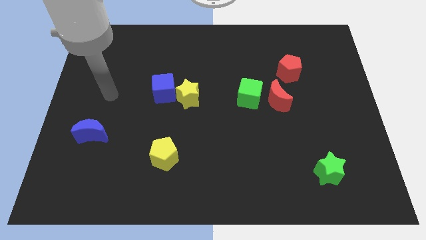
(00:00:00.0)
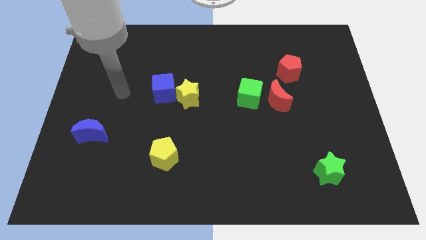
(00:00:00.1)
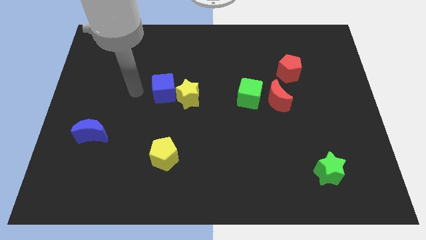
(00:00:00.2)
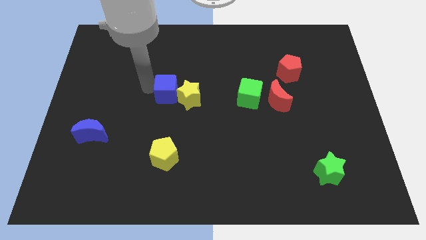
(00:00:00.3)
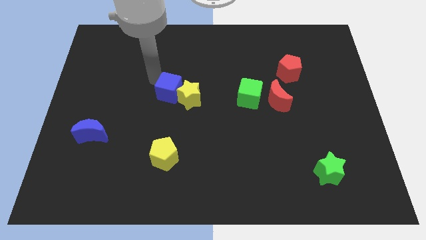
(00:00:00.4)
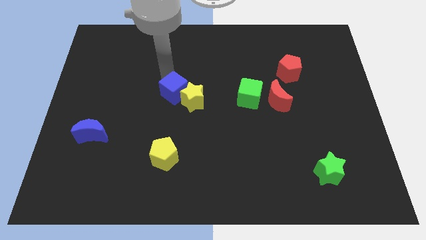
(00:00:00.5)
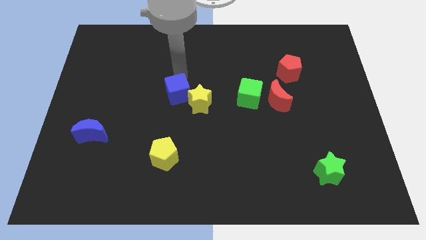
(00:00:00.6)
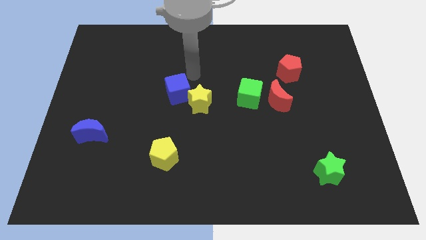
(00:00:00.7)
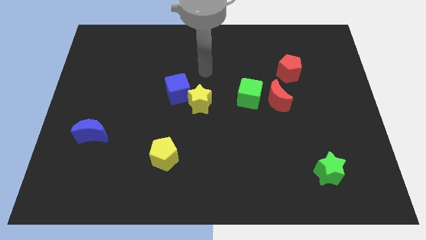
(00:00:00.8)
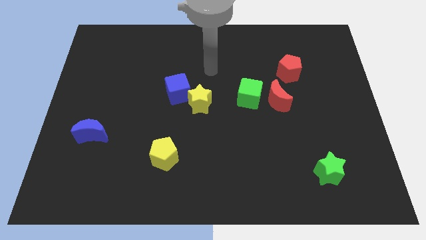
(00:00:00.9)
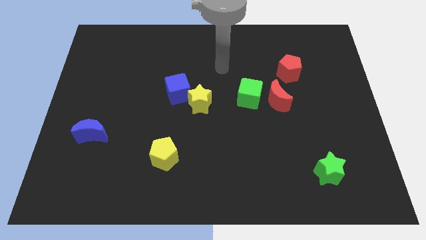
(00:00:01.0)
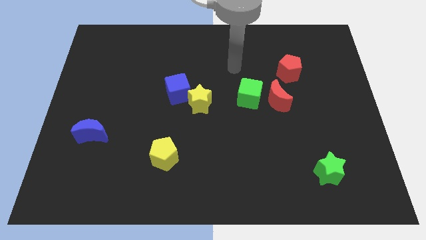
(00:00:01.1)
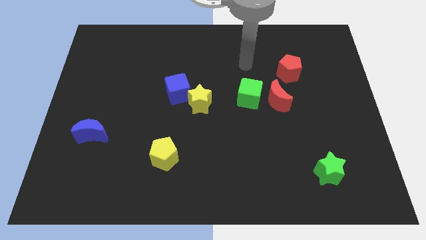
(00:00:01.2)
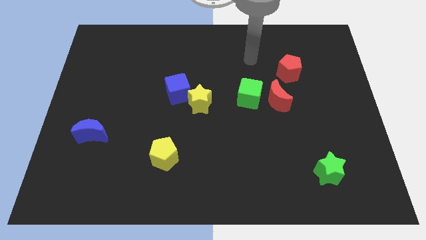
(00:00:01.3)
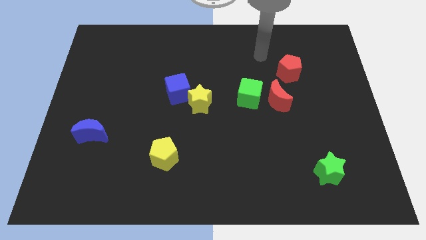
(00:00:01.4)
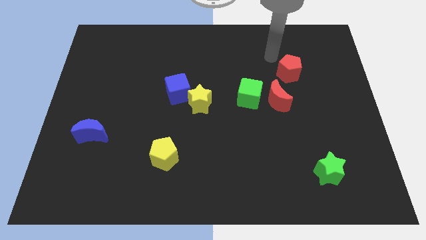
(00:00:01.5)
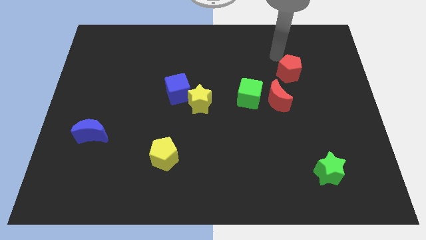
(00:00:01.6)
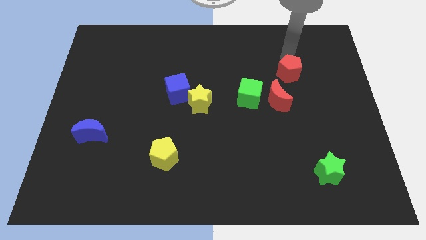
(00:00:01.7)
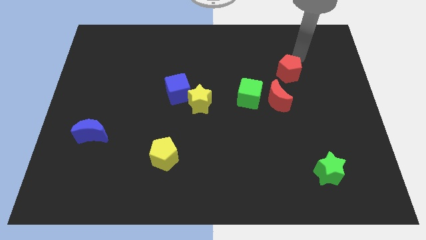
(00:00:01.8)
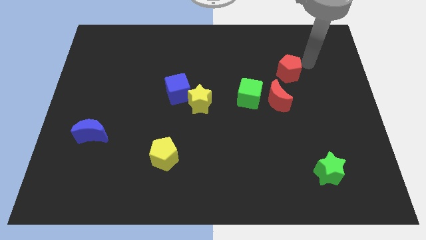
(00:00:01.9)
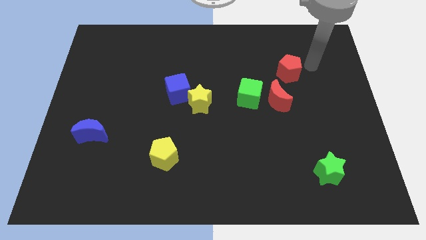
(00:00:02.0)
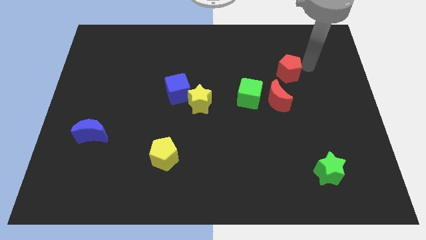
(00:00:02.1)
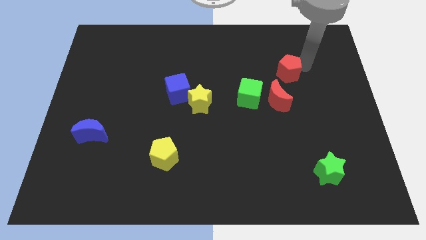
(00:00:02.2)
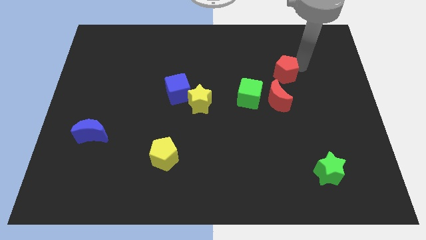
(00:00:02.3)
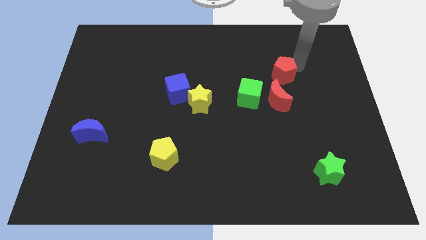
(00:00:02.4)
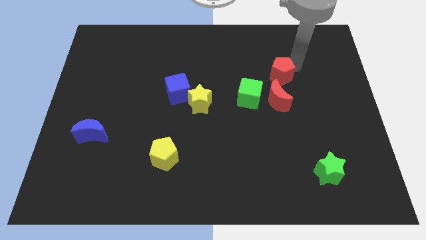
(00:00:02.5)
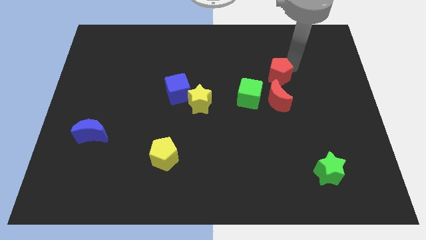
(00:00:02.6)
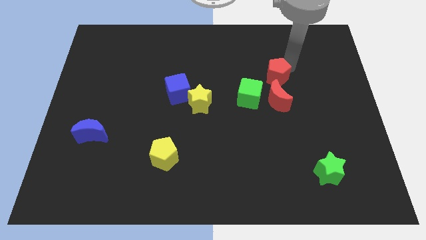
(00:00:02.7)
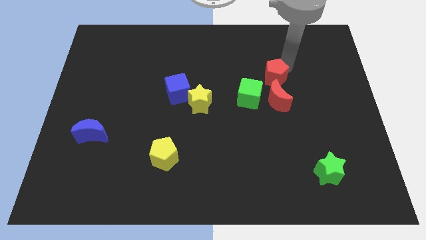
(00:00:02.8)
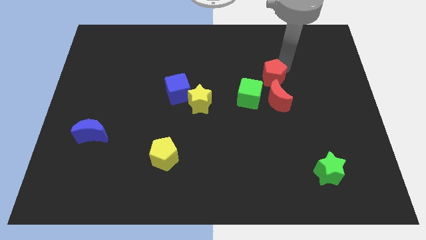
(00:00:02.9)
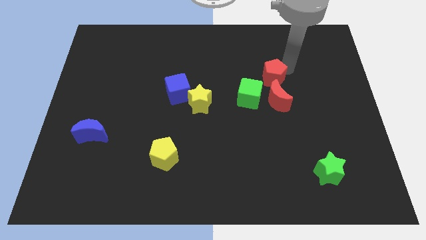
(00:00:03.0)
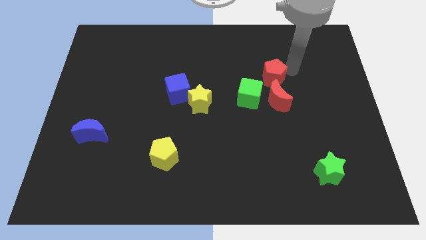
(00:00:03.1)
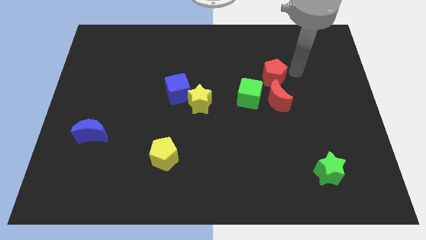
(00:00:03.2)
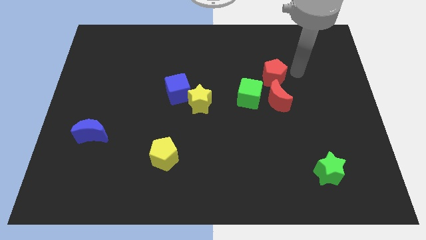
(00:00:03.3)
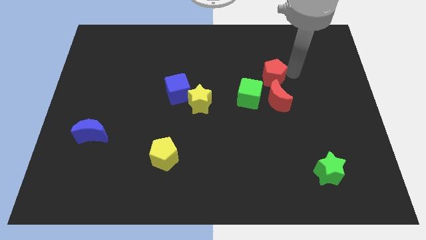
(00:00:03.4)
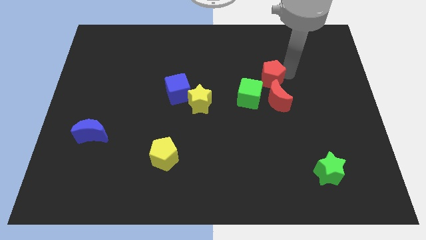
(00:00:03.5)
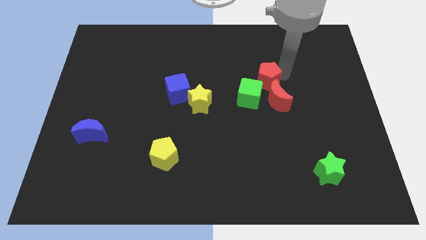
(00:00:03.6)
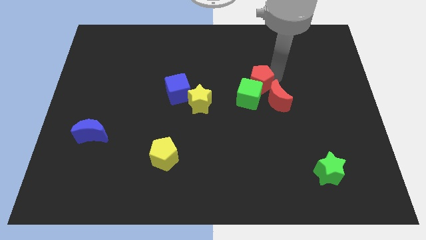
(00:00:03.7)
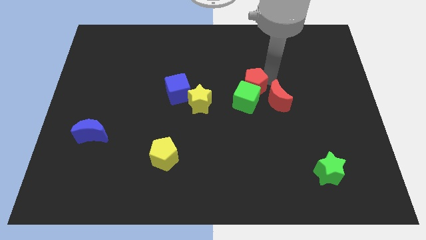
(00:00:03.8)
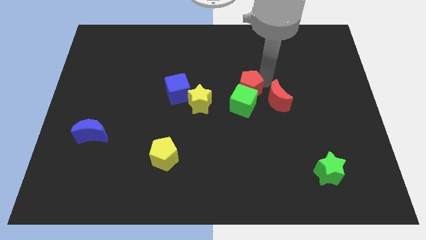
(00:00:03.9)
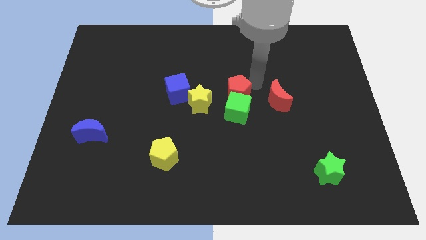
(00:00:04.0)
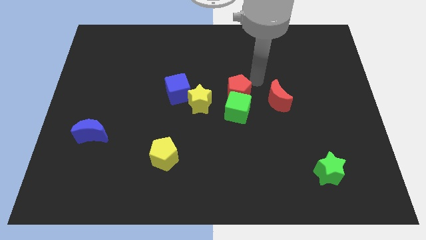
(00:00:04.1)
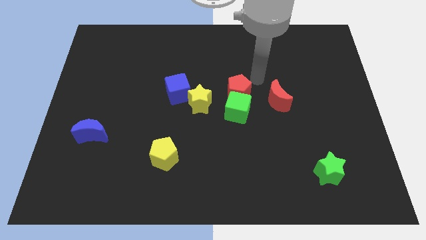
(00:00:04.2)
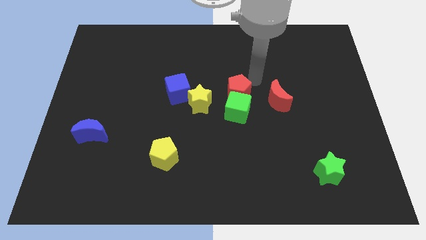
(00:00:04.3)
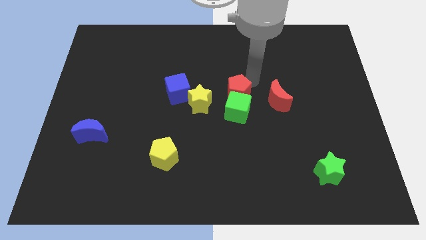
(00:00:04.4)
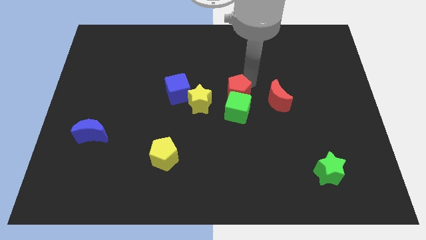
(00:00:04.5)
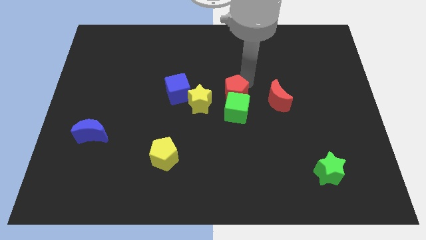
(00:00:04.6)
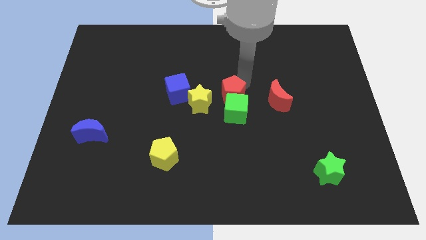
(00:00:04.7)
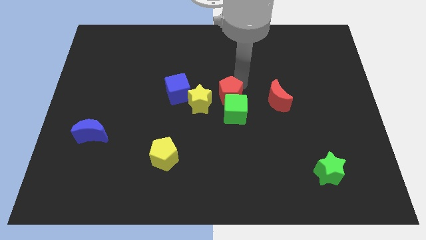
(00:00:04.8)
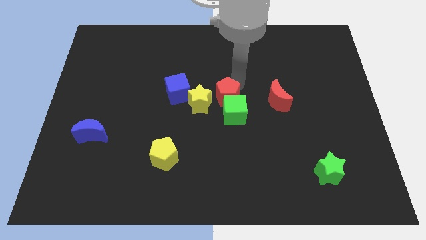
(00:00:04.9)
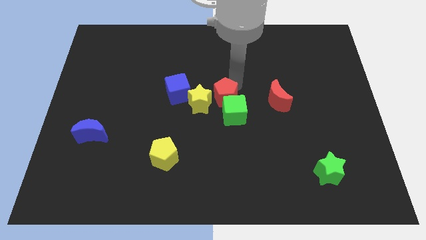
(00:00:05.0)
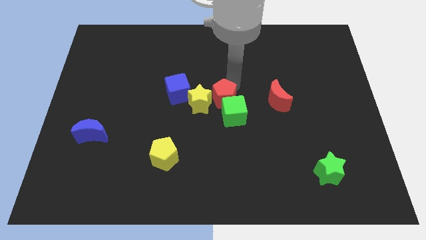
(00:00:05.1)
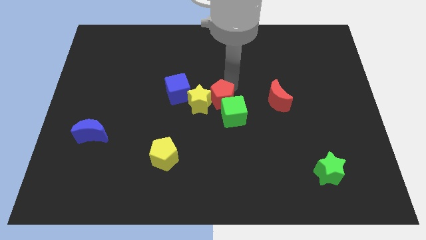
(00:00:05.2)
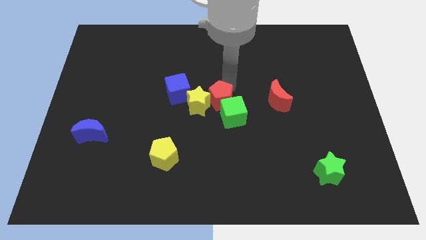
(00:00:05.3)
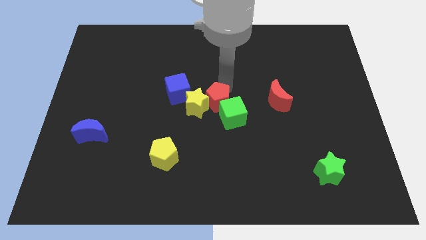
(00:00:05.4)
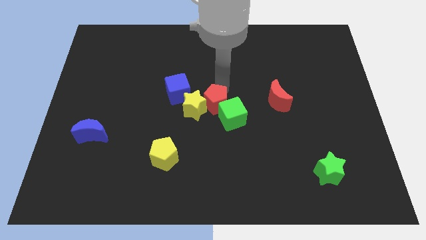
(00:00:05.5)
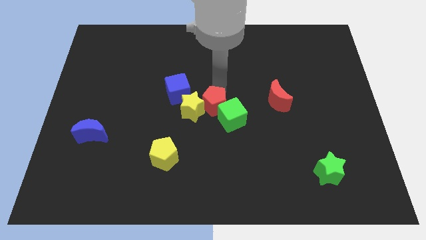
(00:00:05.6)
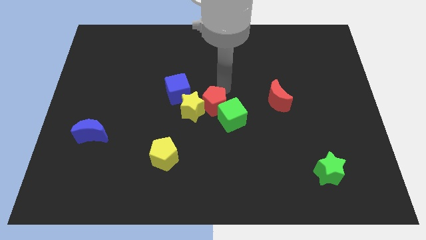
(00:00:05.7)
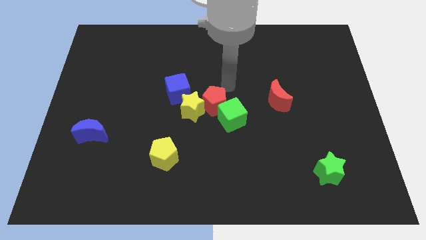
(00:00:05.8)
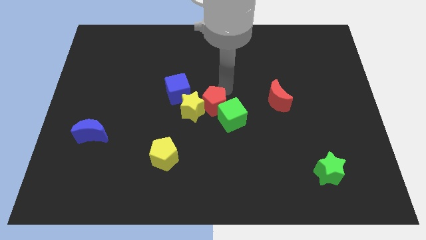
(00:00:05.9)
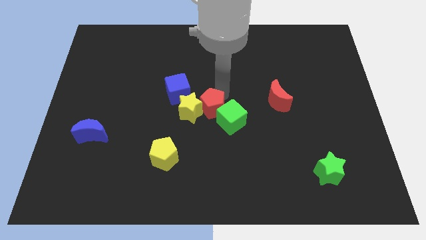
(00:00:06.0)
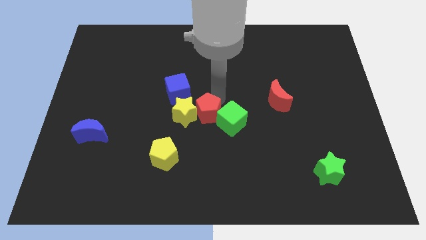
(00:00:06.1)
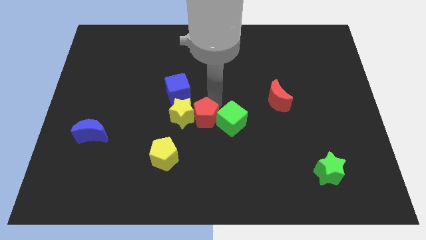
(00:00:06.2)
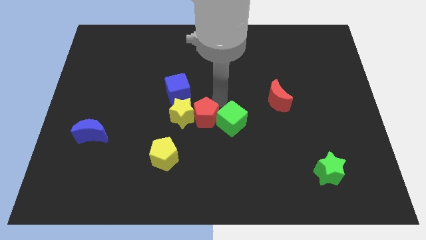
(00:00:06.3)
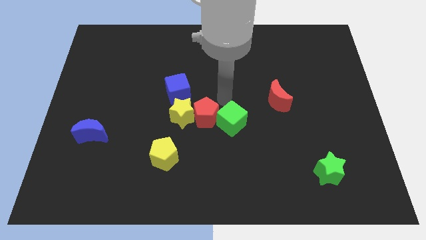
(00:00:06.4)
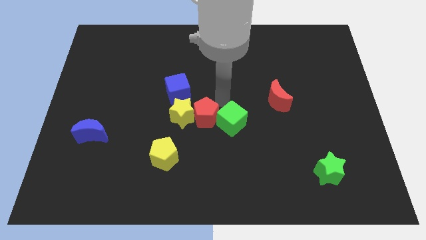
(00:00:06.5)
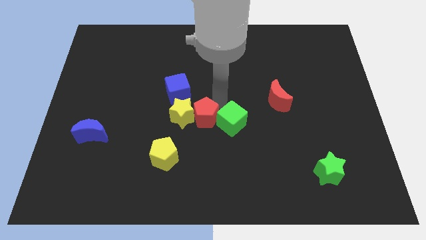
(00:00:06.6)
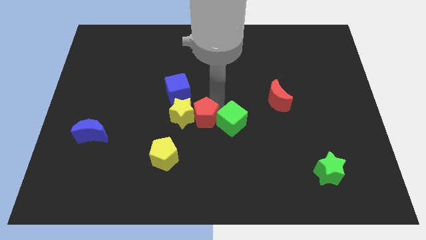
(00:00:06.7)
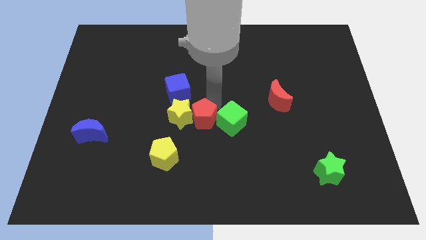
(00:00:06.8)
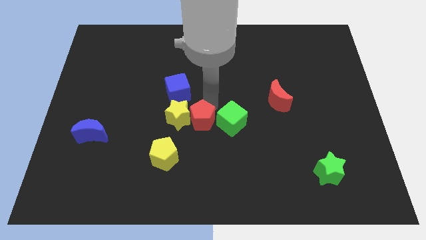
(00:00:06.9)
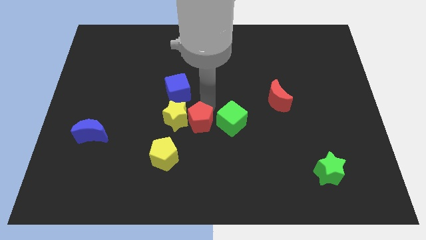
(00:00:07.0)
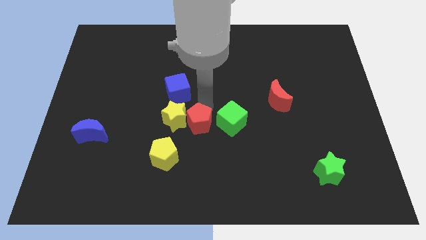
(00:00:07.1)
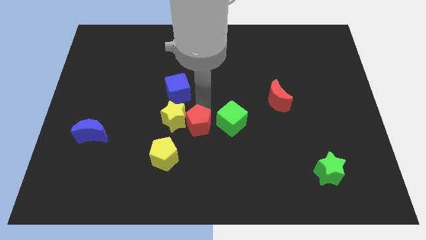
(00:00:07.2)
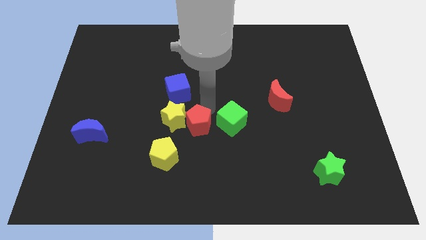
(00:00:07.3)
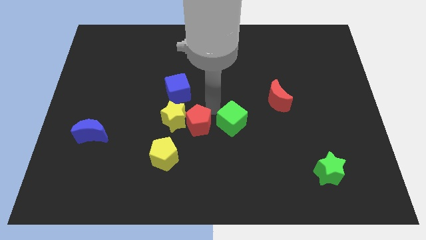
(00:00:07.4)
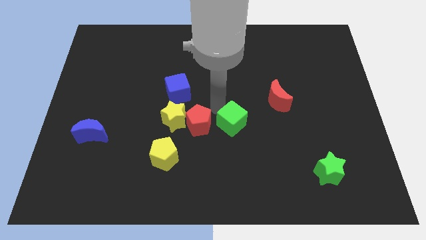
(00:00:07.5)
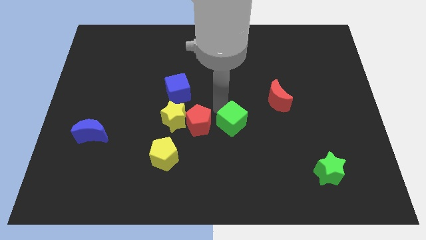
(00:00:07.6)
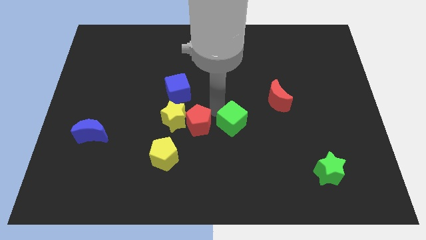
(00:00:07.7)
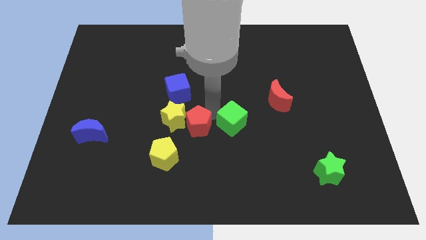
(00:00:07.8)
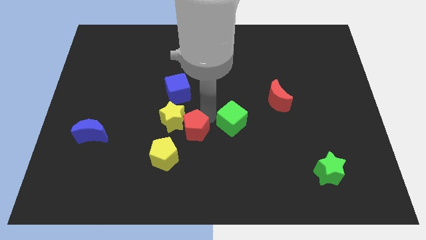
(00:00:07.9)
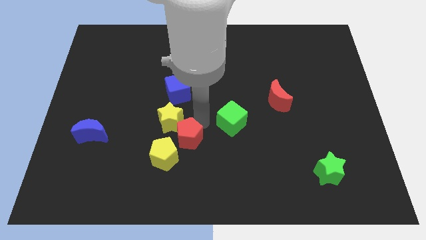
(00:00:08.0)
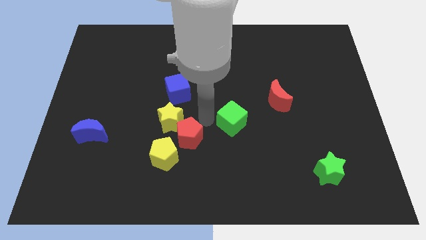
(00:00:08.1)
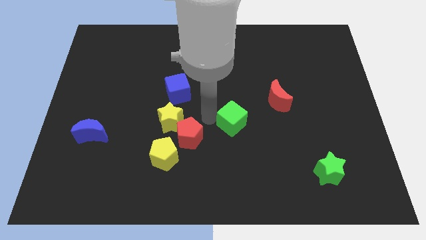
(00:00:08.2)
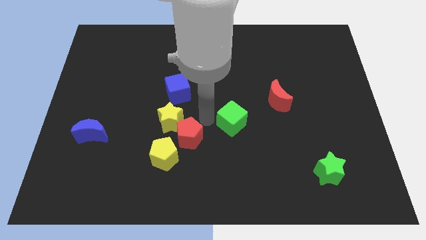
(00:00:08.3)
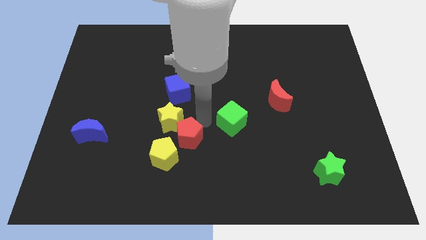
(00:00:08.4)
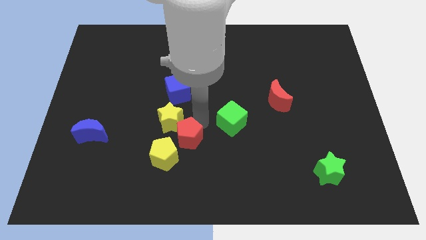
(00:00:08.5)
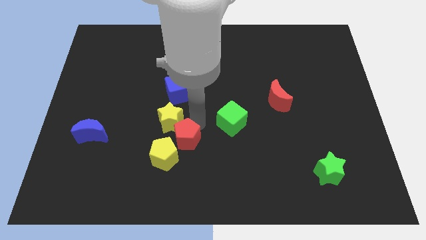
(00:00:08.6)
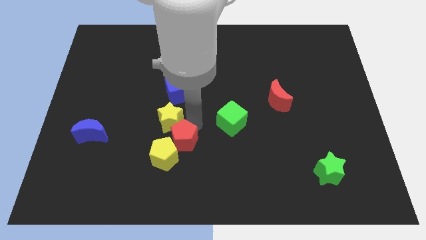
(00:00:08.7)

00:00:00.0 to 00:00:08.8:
push the red pentagon next to the yellow pentagon
